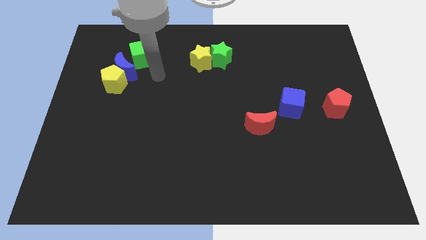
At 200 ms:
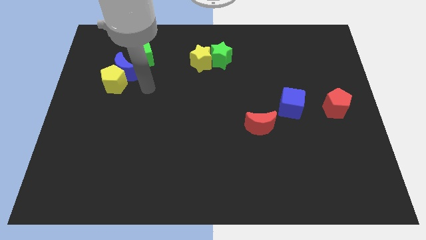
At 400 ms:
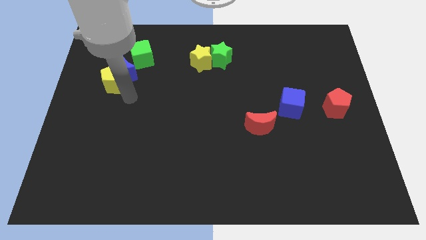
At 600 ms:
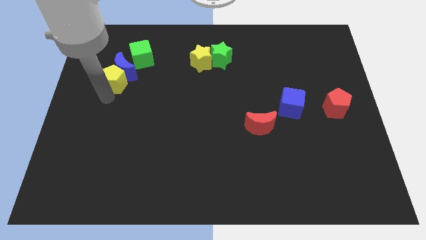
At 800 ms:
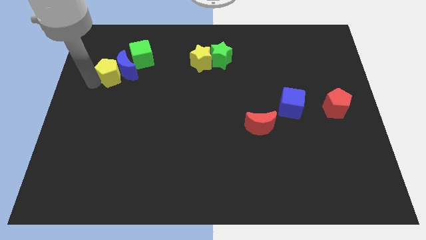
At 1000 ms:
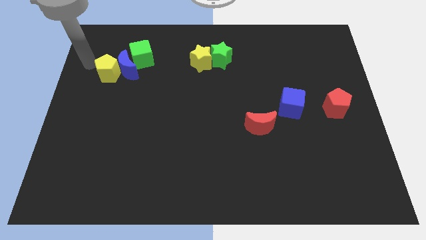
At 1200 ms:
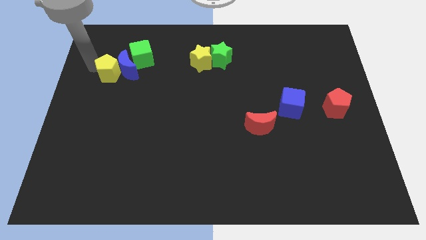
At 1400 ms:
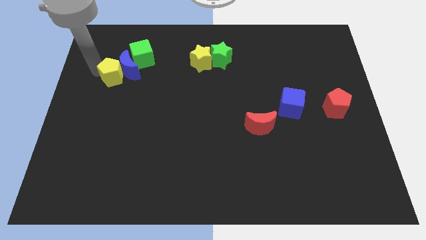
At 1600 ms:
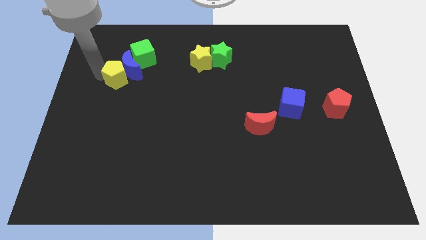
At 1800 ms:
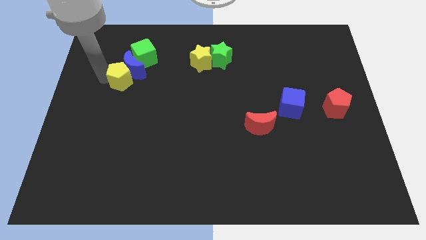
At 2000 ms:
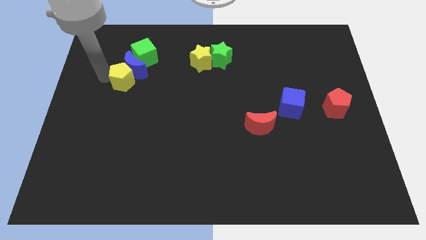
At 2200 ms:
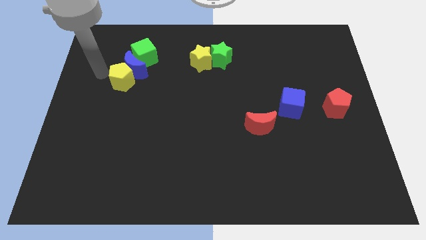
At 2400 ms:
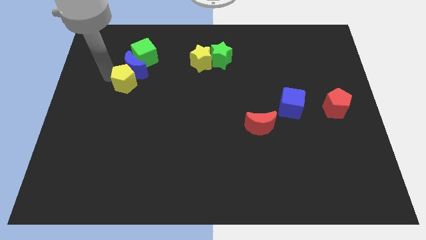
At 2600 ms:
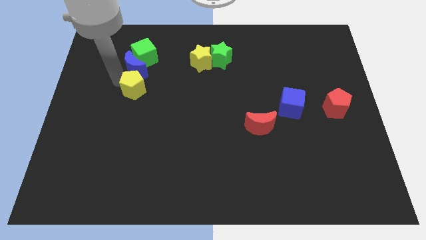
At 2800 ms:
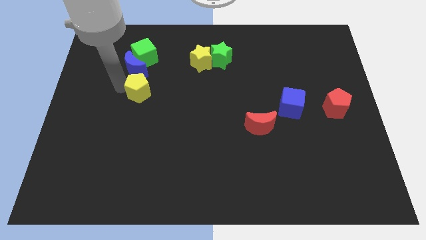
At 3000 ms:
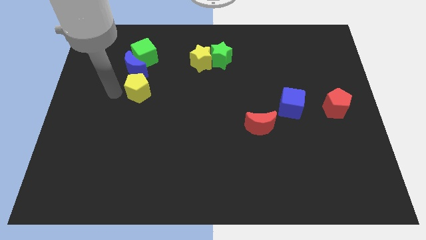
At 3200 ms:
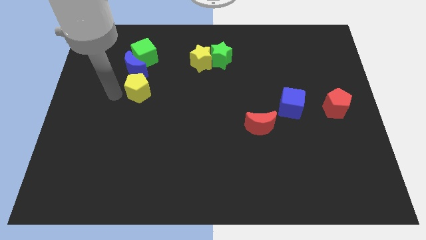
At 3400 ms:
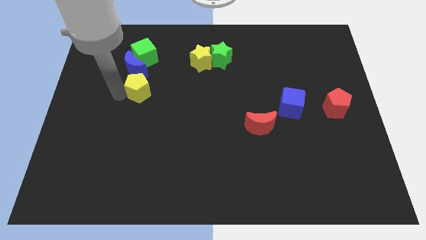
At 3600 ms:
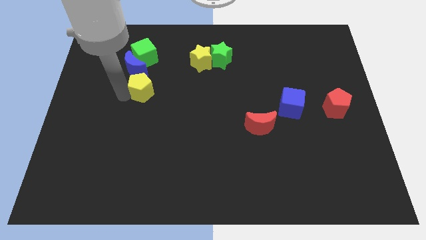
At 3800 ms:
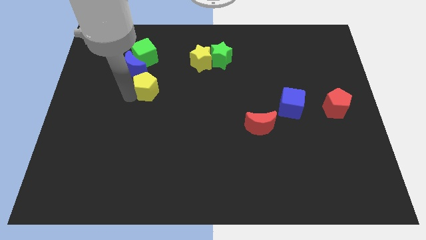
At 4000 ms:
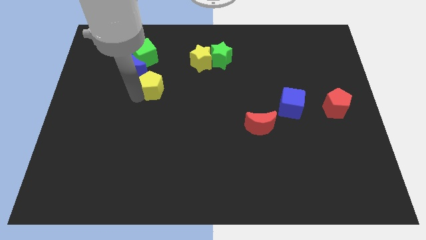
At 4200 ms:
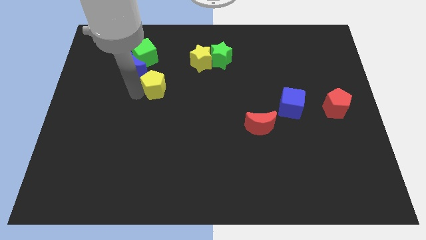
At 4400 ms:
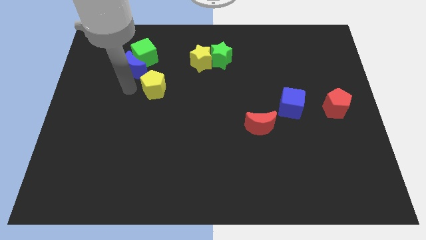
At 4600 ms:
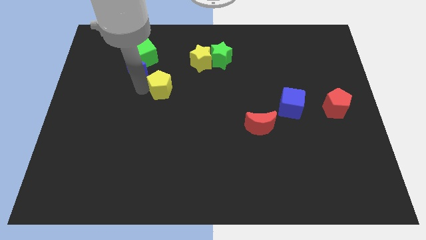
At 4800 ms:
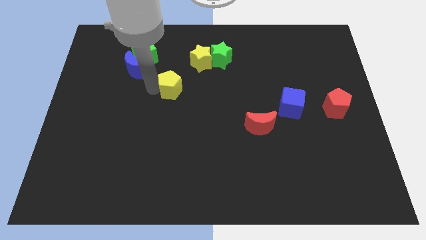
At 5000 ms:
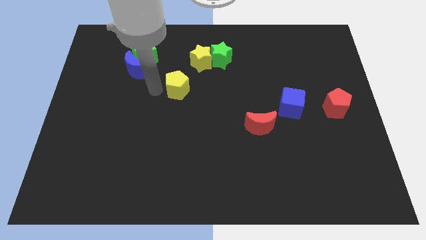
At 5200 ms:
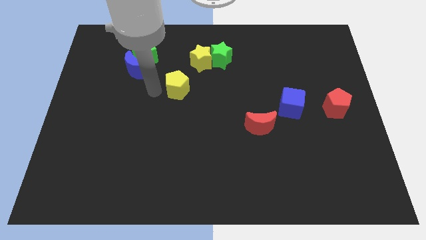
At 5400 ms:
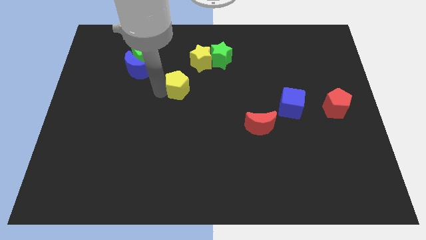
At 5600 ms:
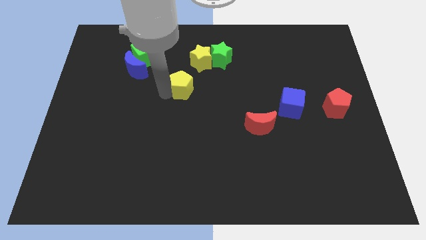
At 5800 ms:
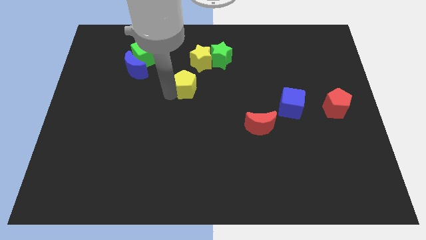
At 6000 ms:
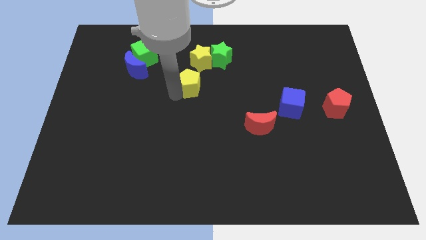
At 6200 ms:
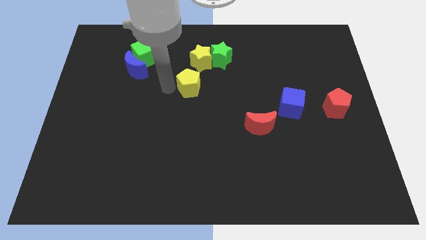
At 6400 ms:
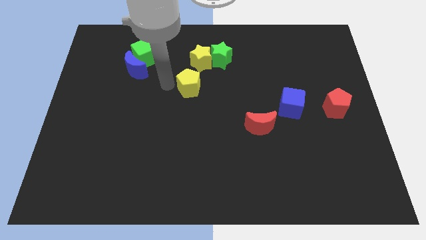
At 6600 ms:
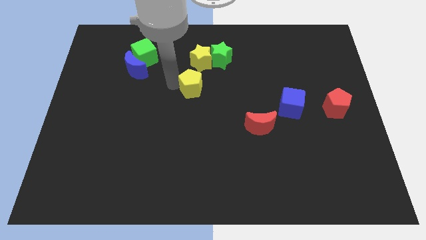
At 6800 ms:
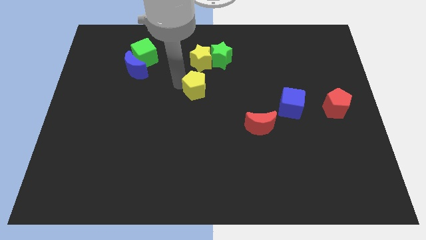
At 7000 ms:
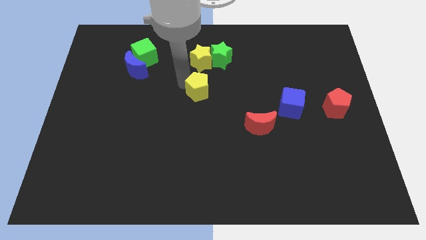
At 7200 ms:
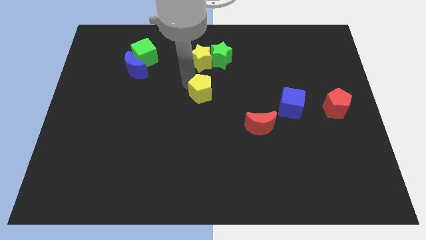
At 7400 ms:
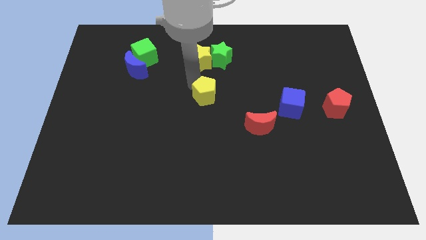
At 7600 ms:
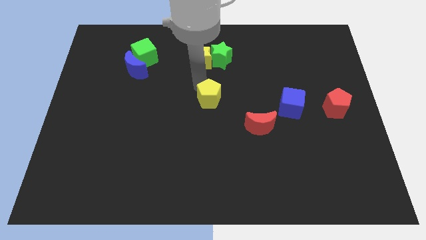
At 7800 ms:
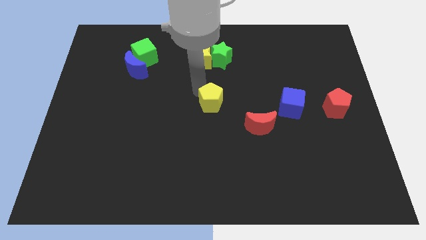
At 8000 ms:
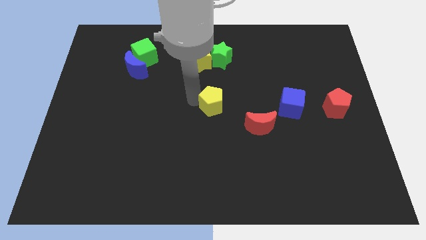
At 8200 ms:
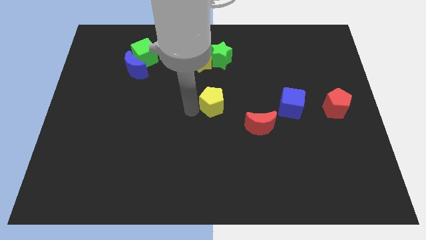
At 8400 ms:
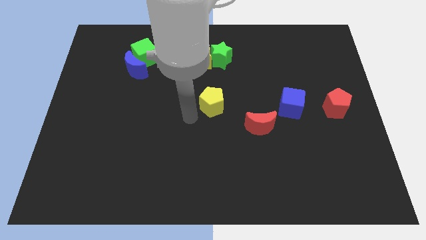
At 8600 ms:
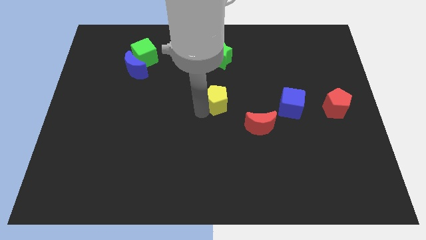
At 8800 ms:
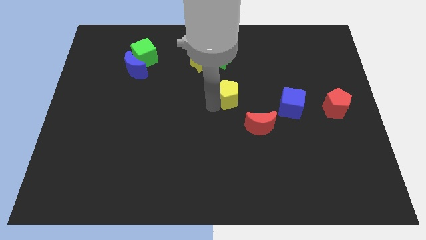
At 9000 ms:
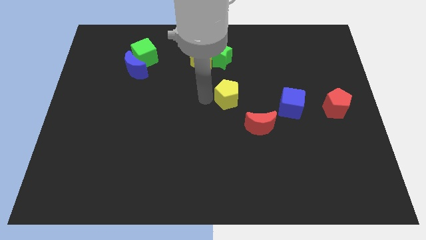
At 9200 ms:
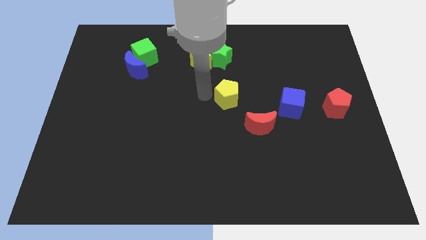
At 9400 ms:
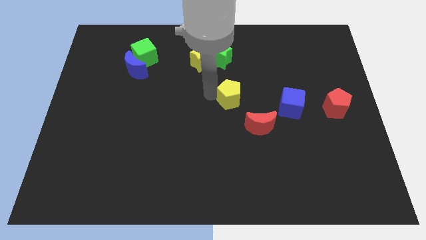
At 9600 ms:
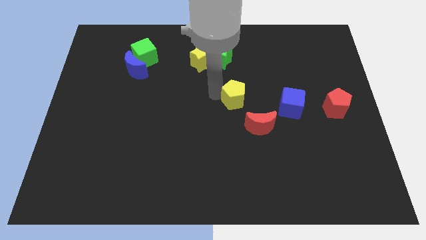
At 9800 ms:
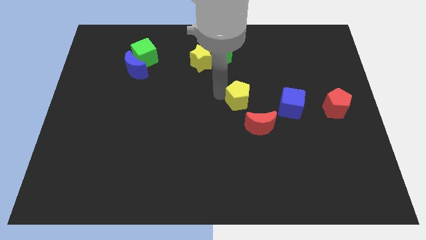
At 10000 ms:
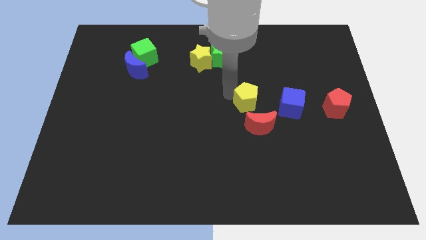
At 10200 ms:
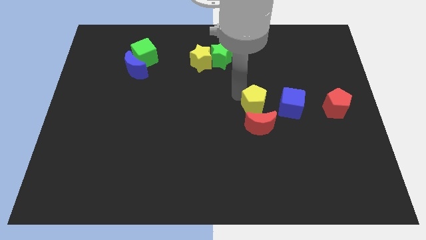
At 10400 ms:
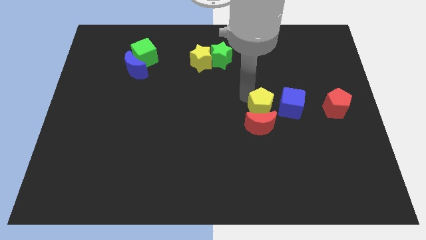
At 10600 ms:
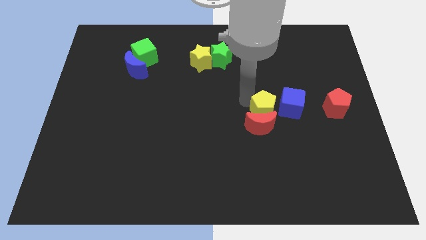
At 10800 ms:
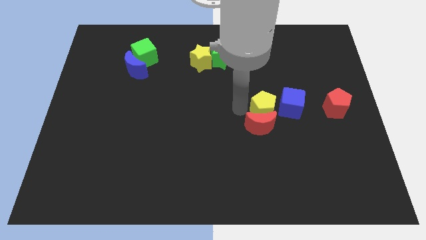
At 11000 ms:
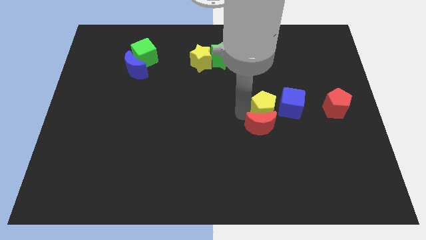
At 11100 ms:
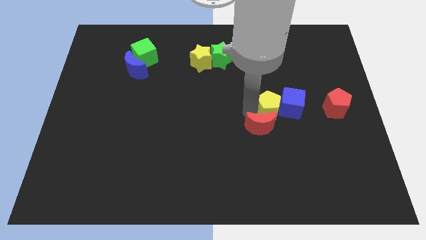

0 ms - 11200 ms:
push the yellow pentagon towards the blue cube

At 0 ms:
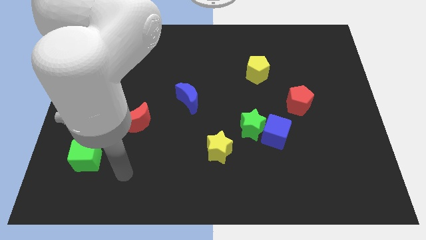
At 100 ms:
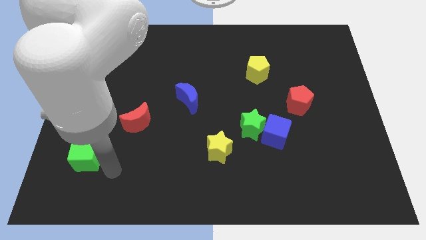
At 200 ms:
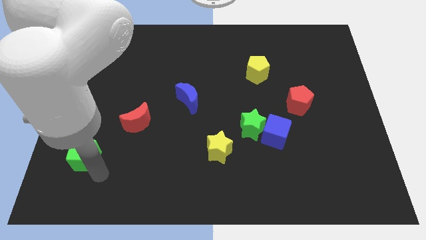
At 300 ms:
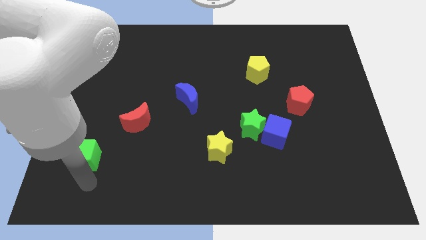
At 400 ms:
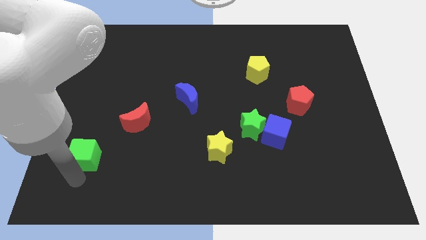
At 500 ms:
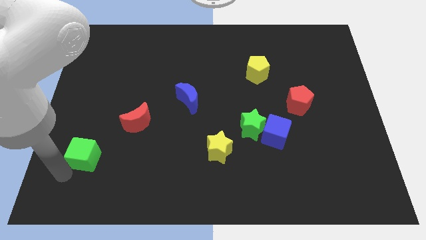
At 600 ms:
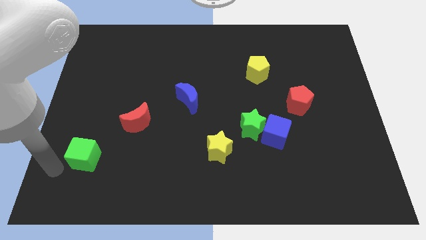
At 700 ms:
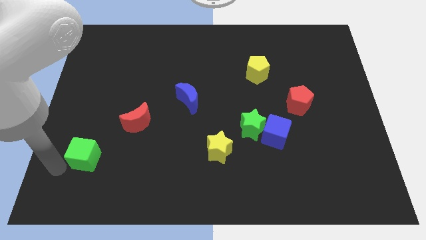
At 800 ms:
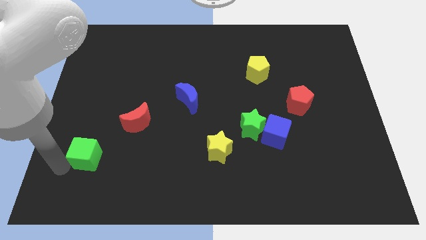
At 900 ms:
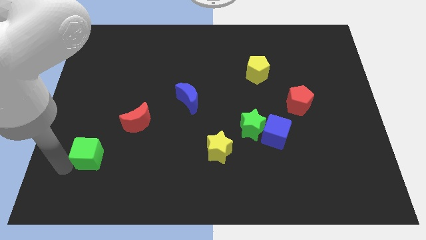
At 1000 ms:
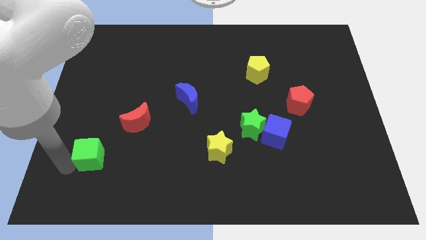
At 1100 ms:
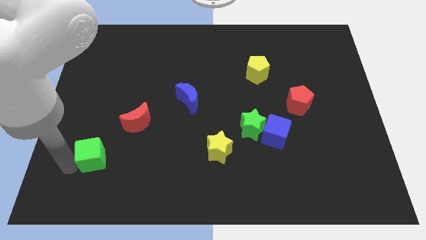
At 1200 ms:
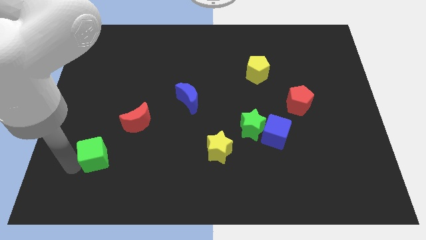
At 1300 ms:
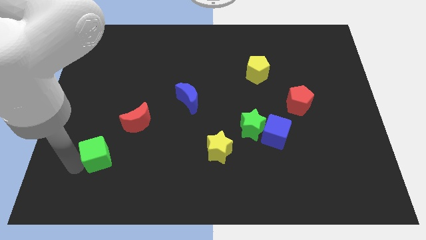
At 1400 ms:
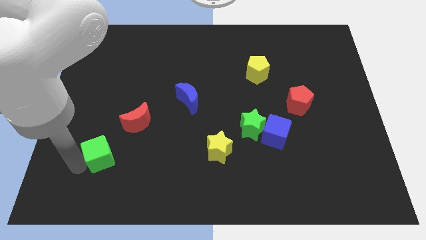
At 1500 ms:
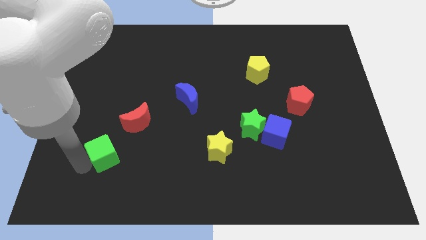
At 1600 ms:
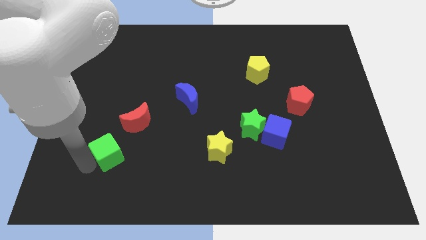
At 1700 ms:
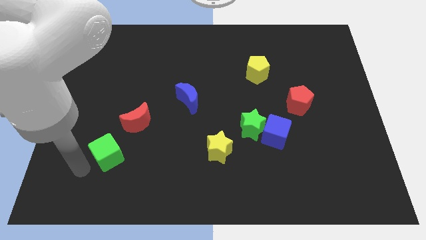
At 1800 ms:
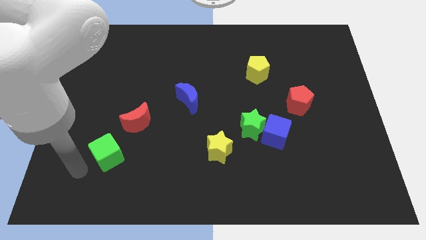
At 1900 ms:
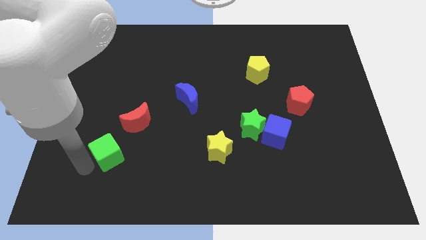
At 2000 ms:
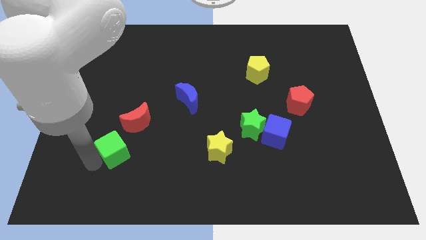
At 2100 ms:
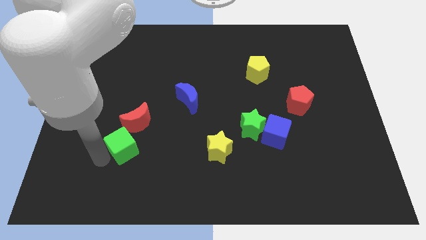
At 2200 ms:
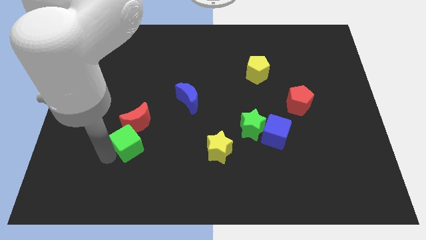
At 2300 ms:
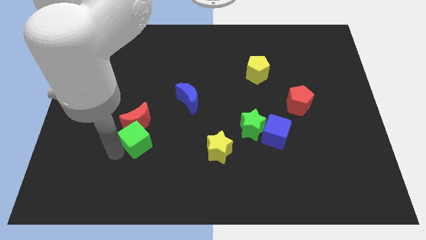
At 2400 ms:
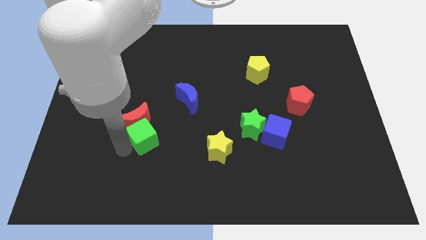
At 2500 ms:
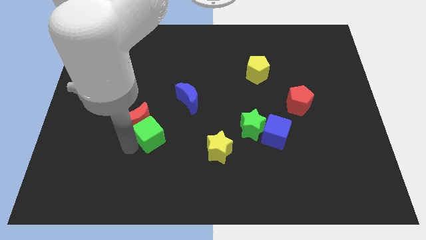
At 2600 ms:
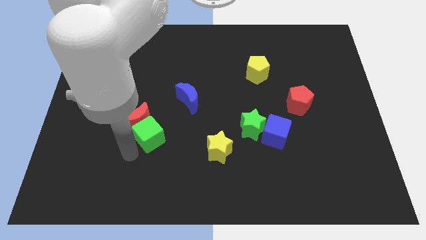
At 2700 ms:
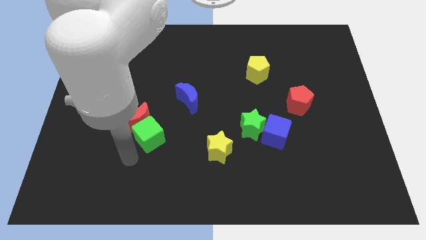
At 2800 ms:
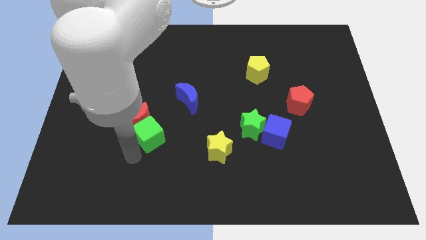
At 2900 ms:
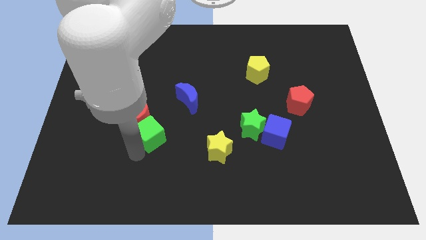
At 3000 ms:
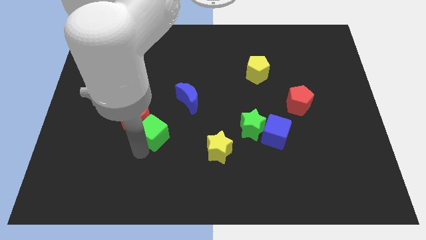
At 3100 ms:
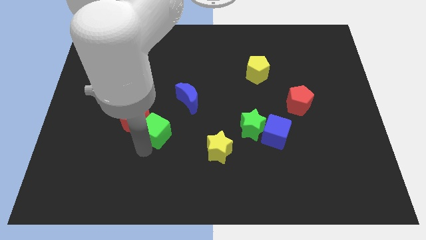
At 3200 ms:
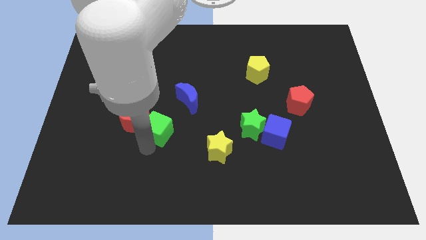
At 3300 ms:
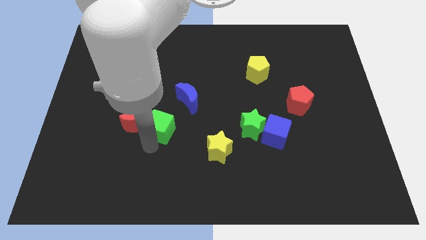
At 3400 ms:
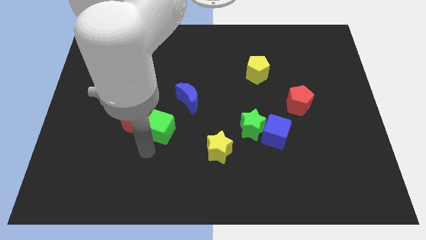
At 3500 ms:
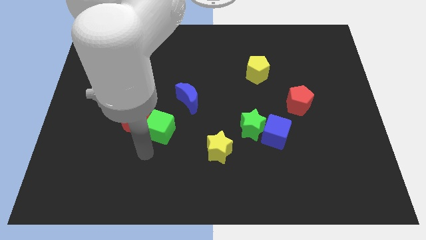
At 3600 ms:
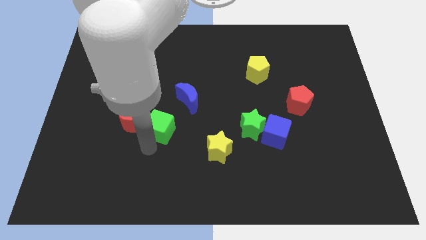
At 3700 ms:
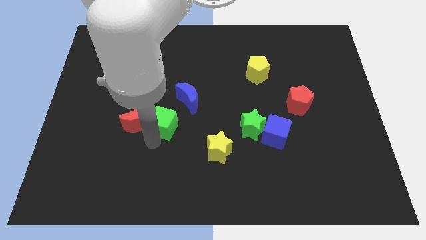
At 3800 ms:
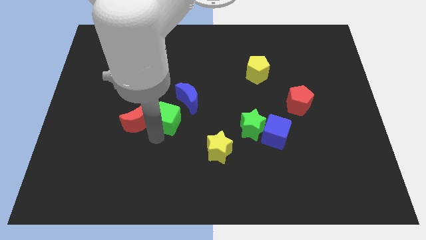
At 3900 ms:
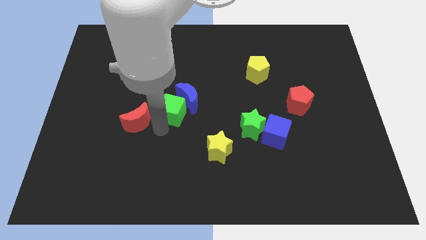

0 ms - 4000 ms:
move the green cube towards the blue moon
